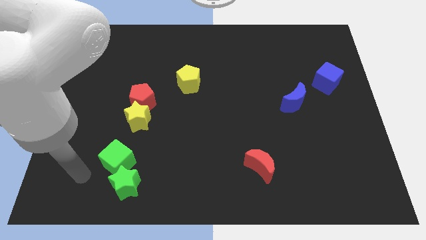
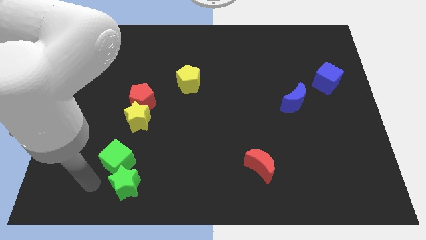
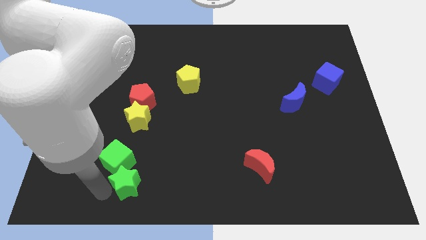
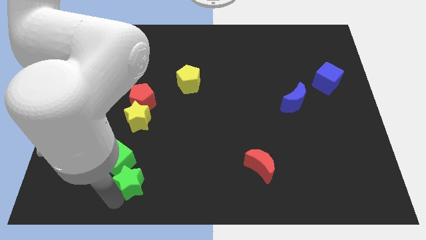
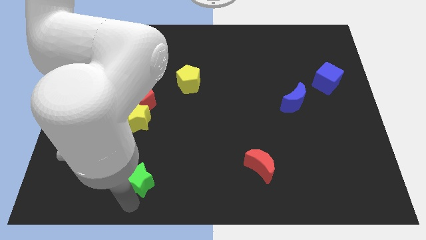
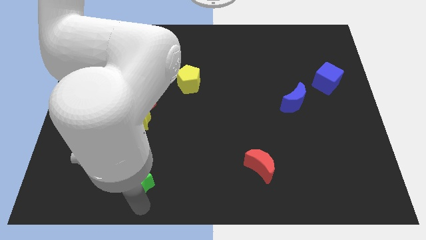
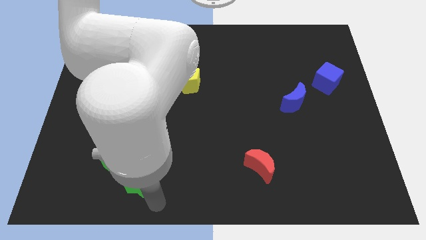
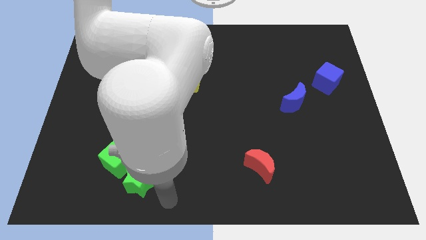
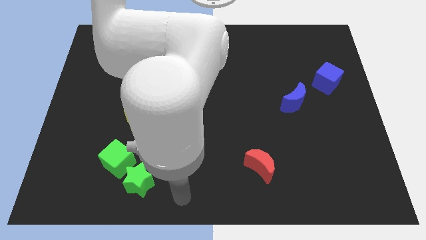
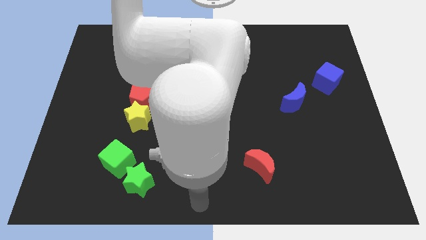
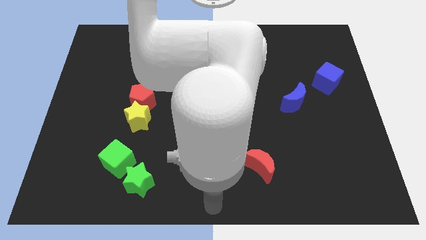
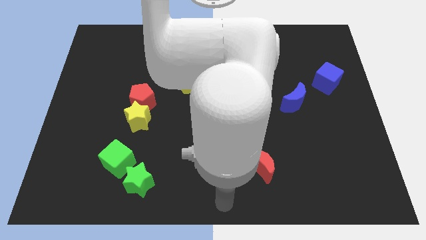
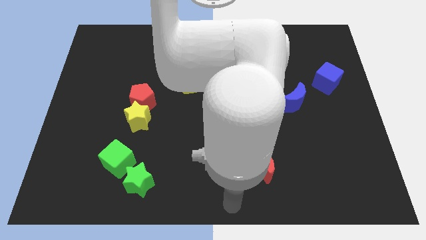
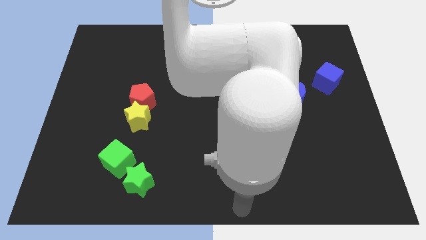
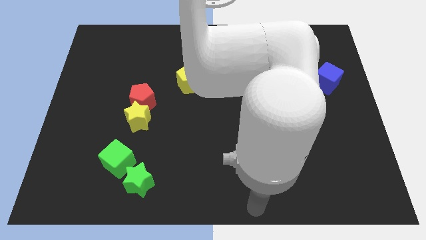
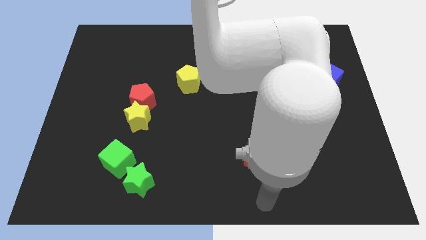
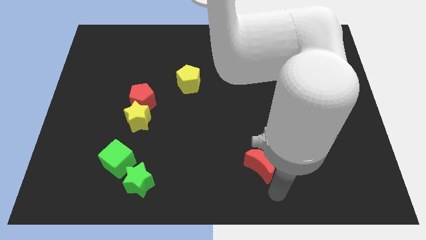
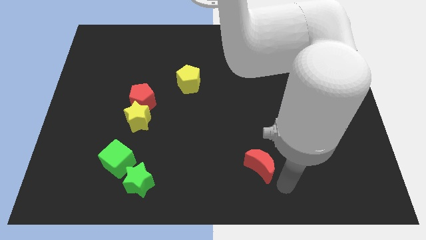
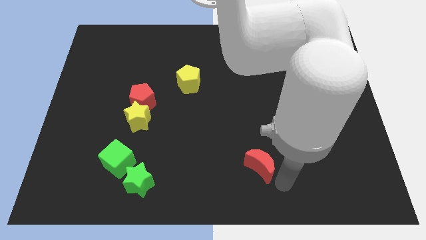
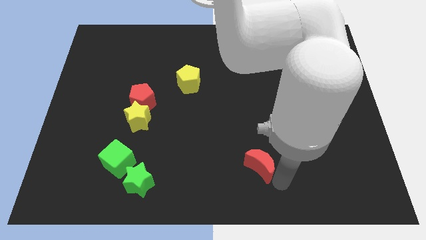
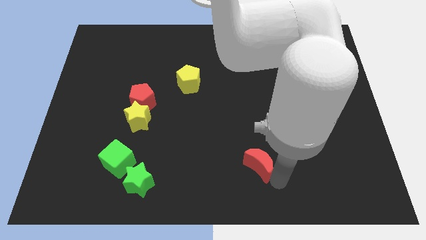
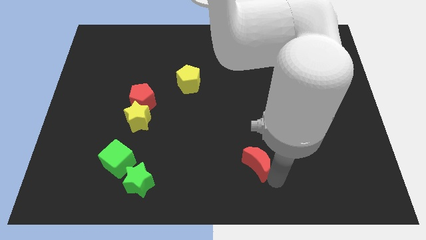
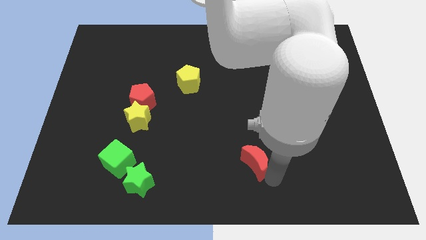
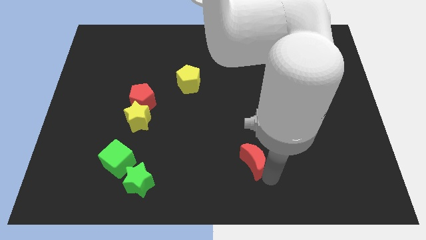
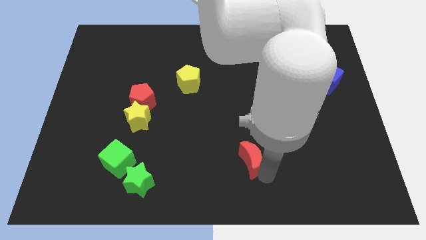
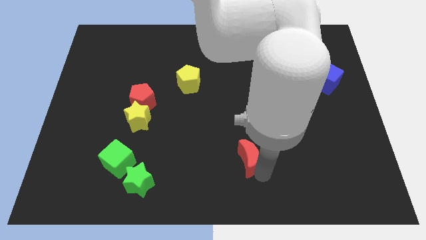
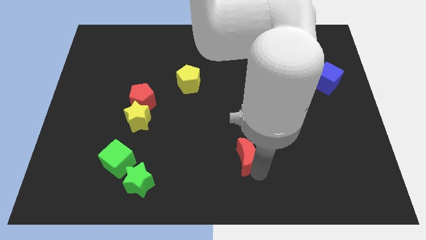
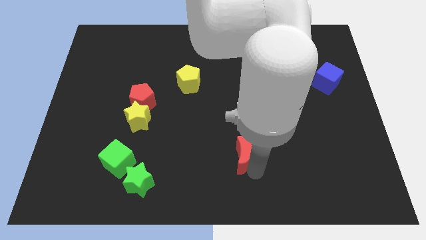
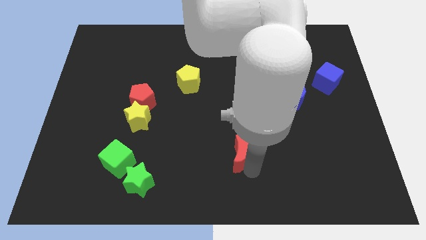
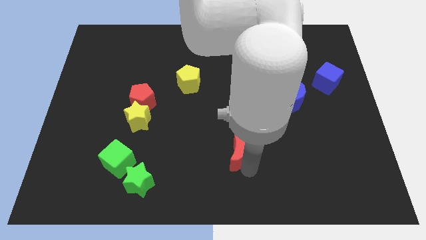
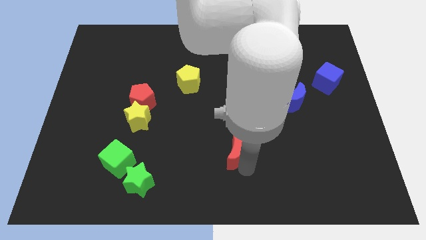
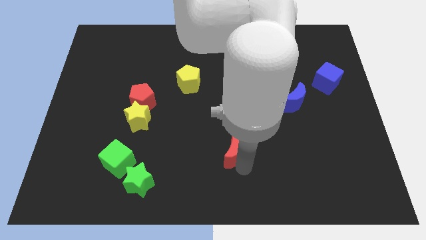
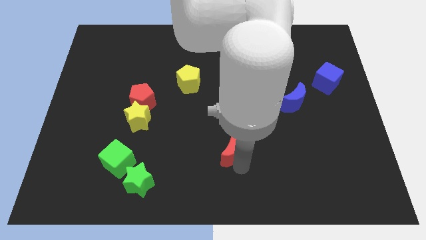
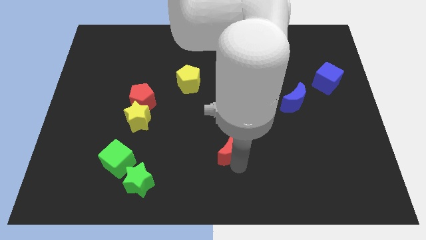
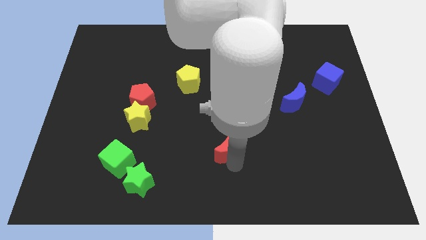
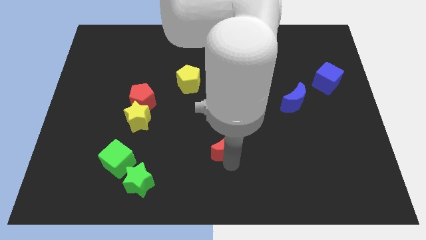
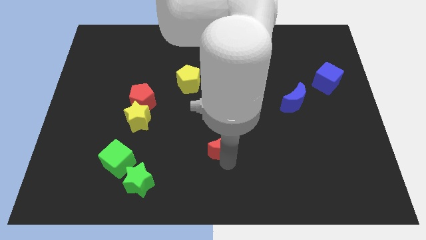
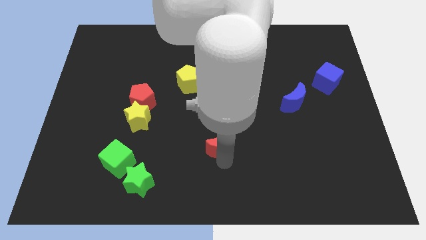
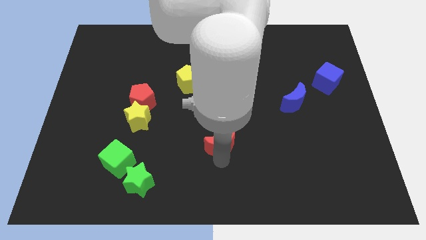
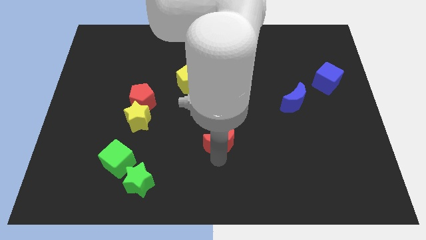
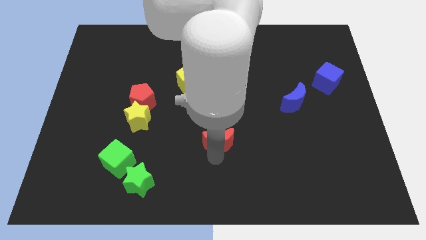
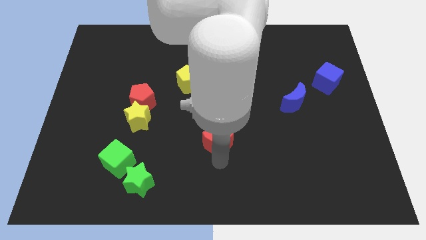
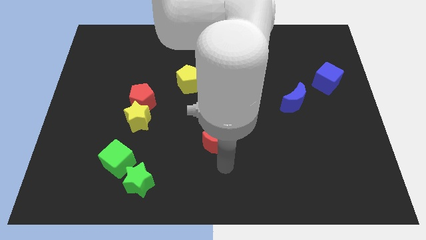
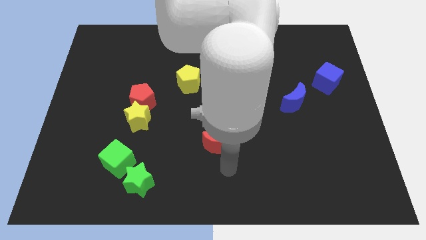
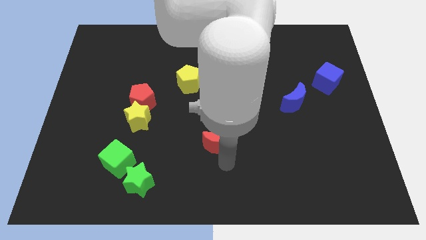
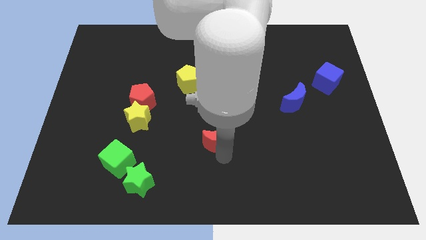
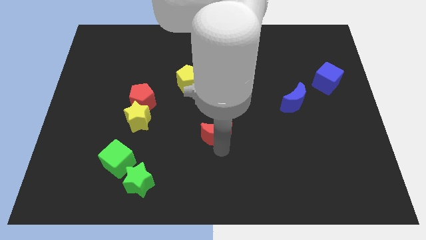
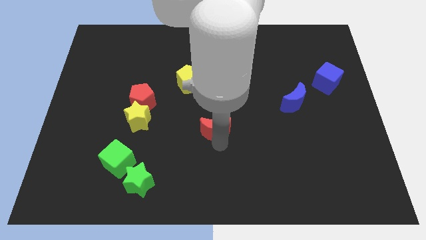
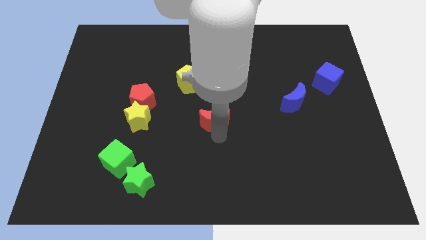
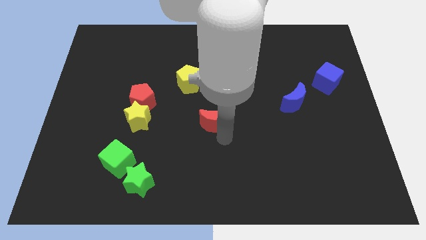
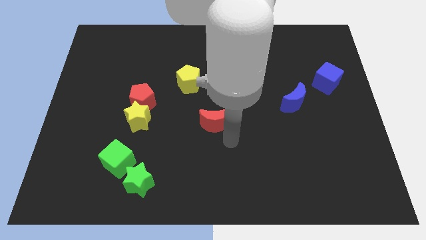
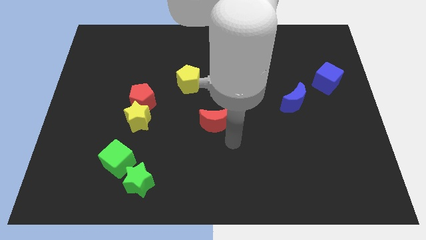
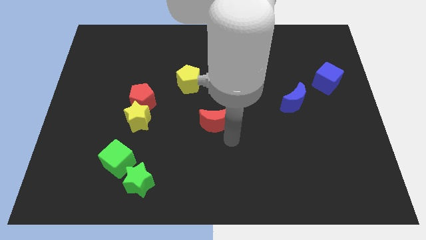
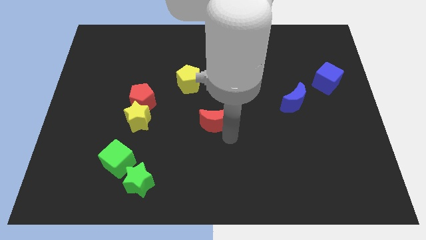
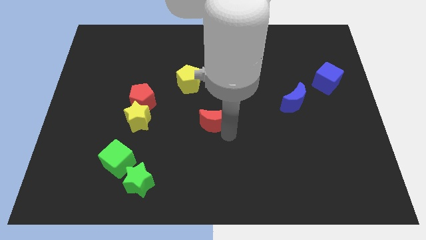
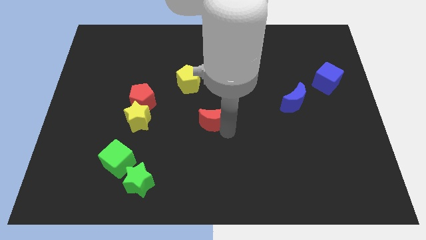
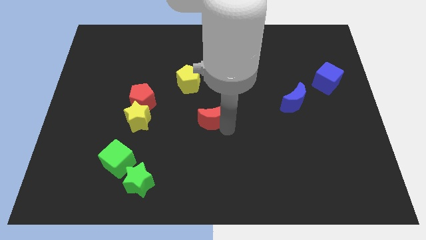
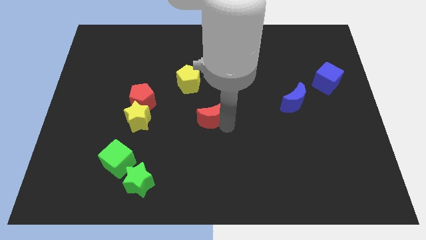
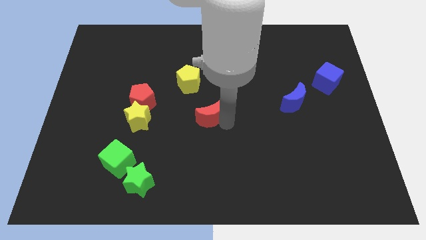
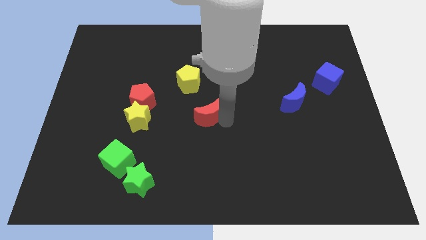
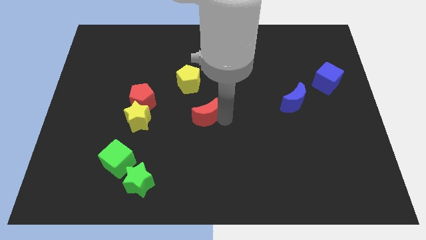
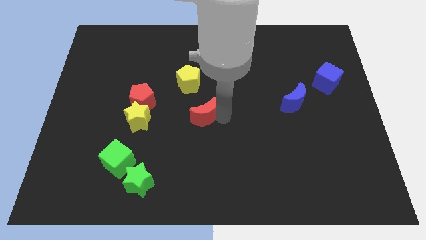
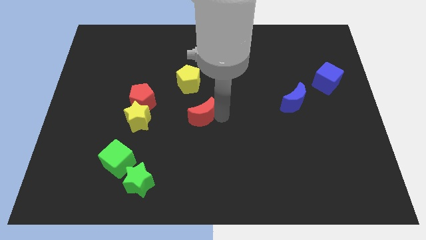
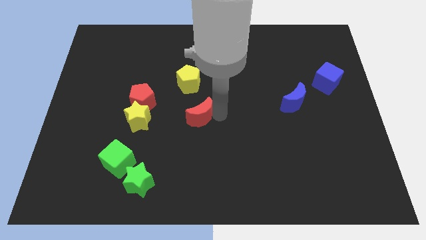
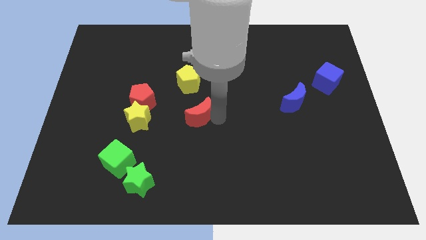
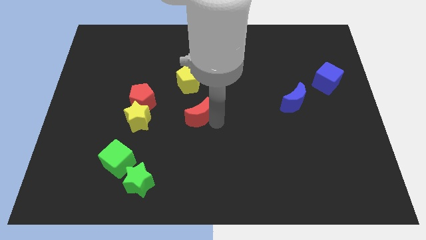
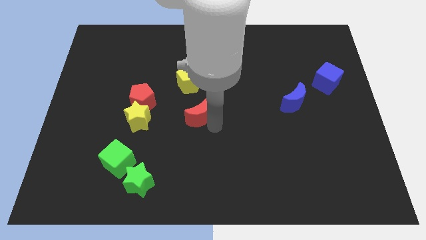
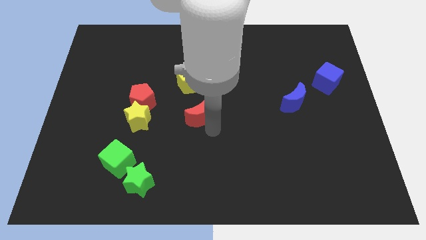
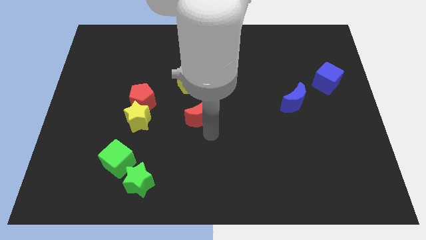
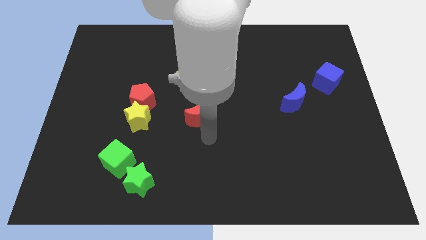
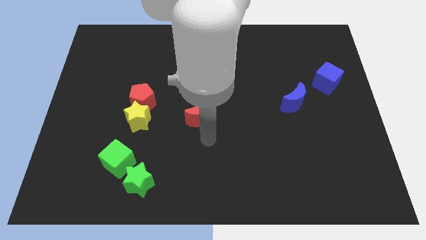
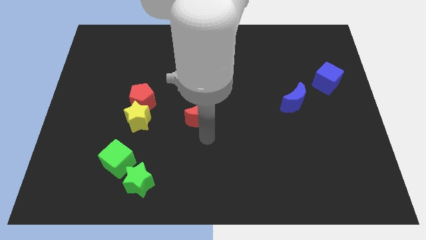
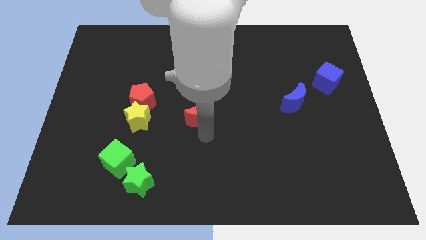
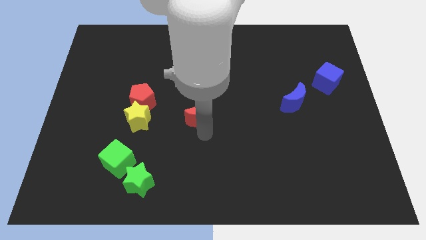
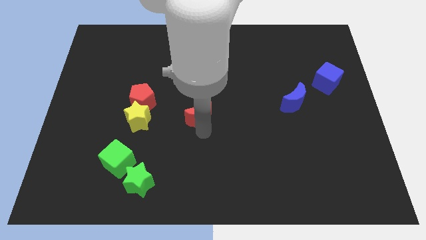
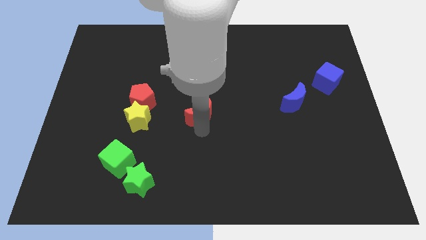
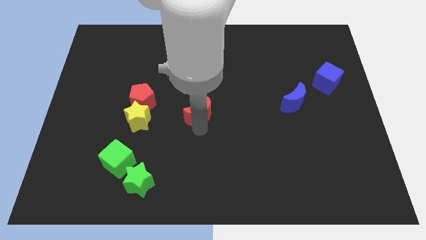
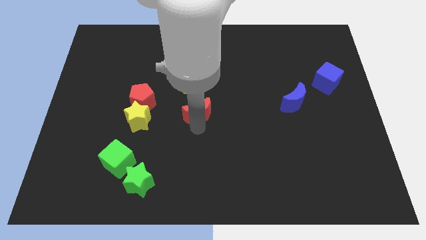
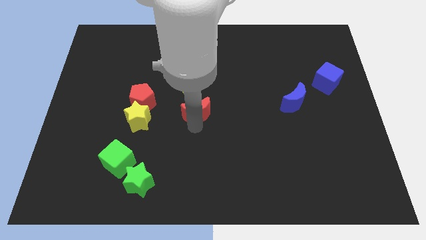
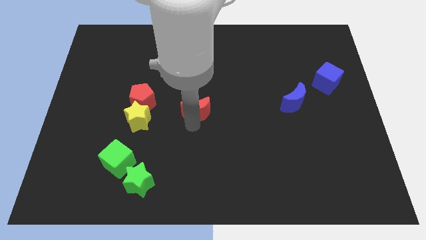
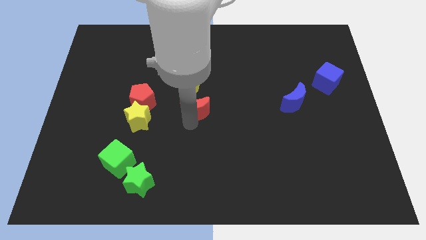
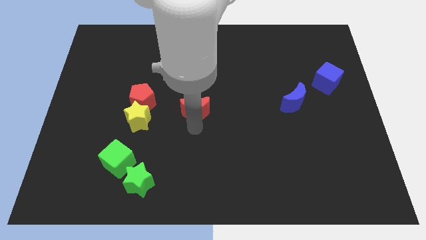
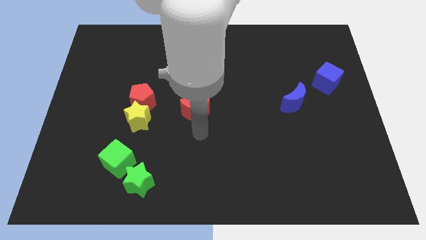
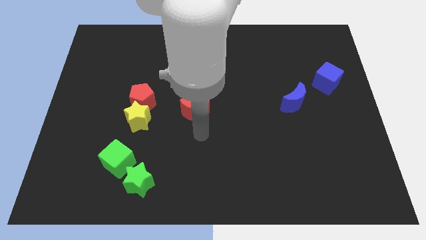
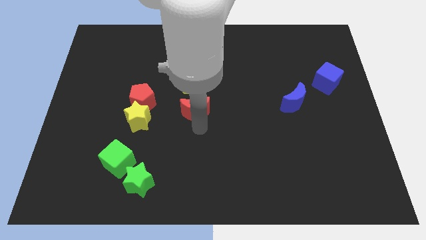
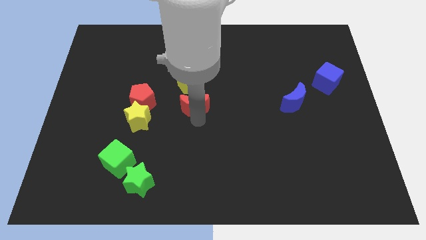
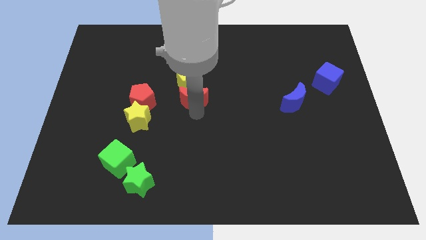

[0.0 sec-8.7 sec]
put the red moon towards the yellow pentagon
